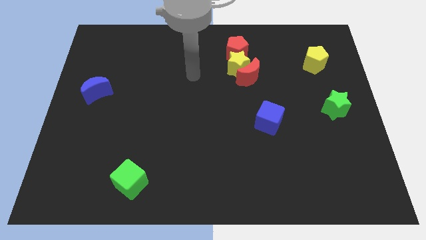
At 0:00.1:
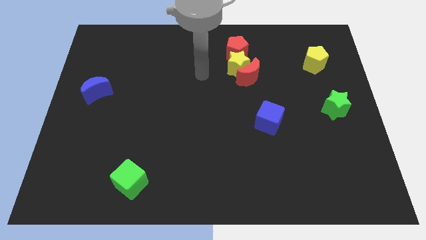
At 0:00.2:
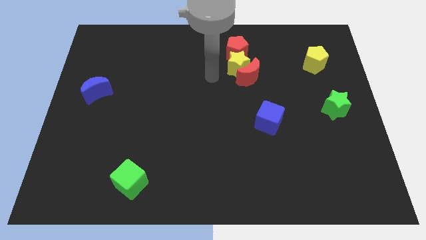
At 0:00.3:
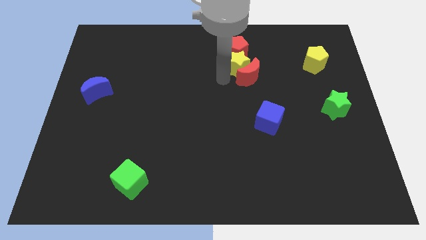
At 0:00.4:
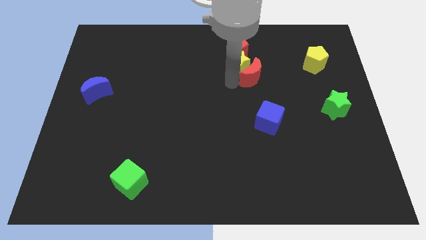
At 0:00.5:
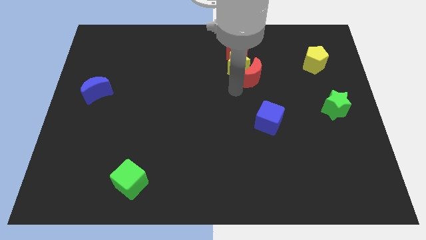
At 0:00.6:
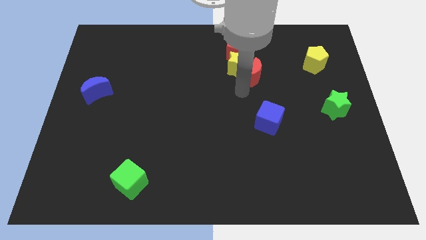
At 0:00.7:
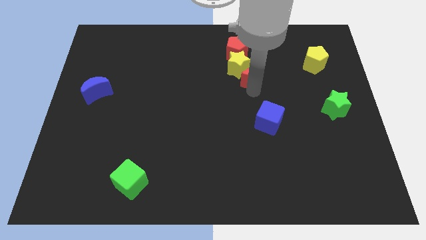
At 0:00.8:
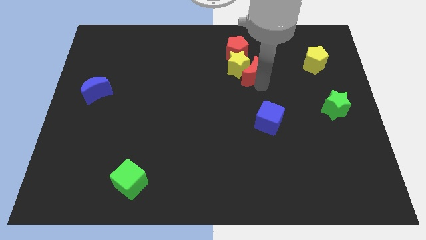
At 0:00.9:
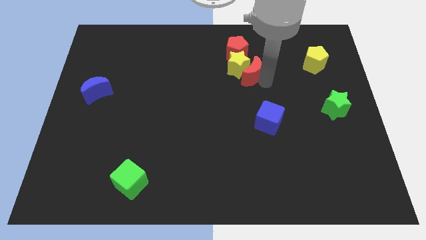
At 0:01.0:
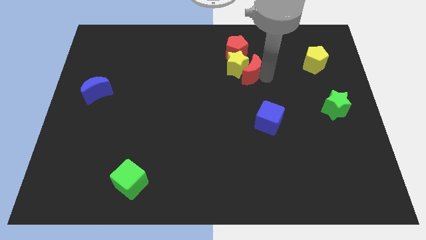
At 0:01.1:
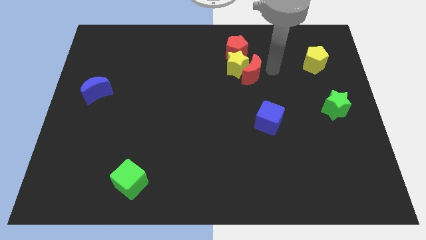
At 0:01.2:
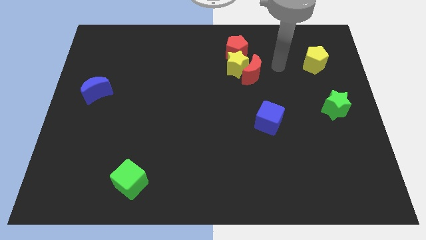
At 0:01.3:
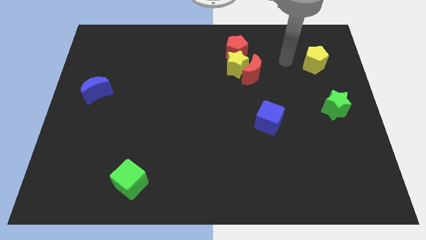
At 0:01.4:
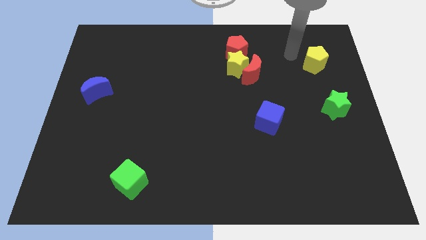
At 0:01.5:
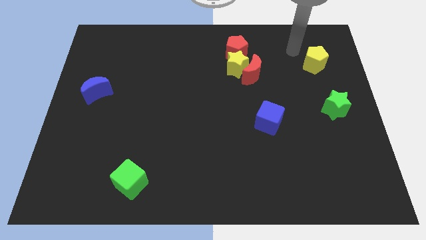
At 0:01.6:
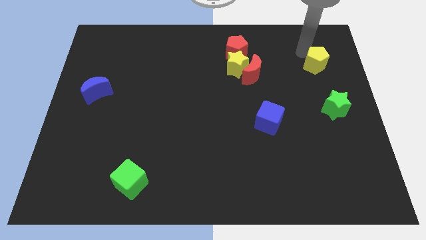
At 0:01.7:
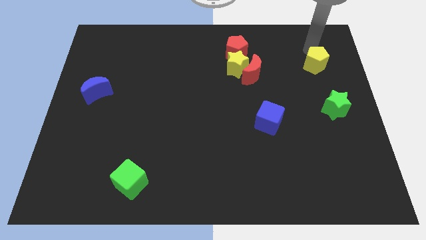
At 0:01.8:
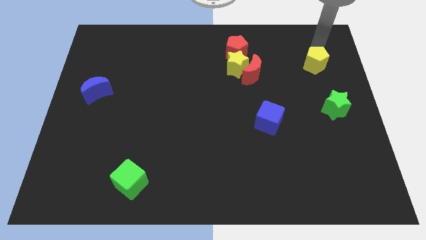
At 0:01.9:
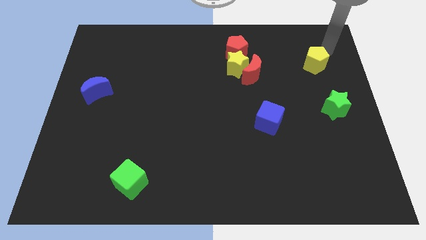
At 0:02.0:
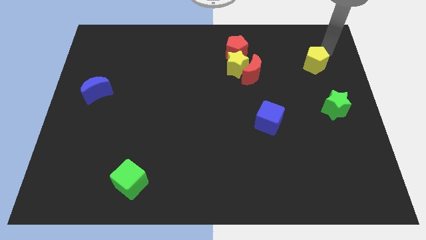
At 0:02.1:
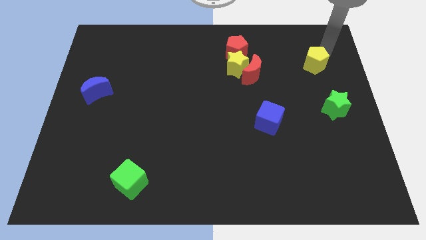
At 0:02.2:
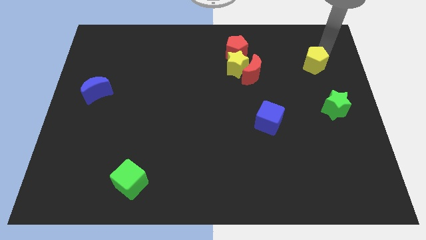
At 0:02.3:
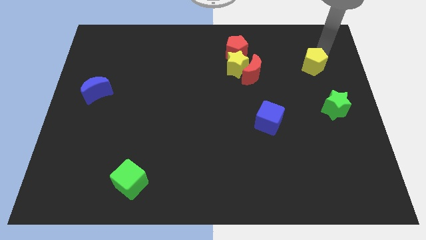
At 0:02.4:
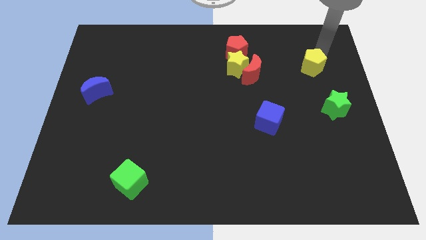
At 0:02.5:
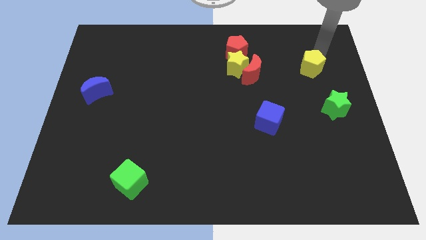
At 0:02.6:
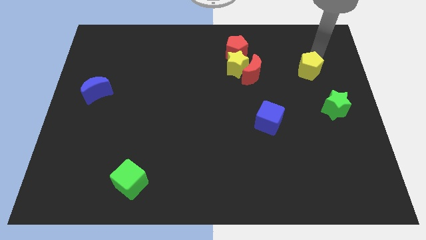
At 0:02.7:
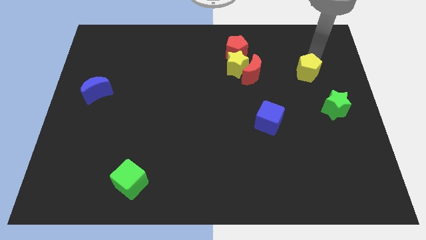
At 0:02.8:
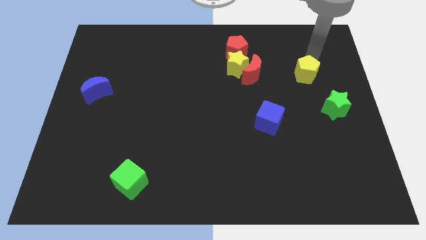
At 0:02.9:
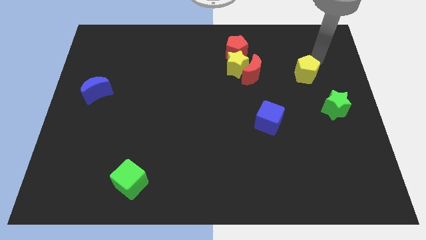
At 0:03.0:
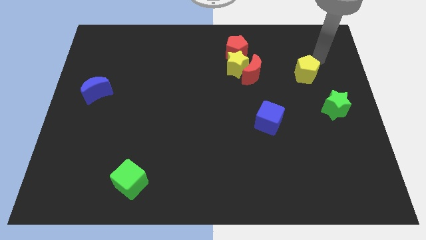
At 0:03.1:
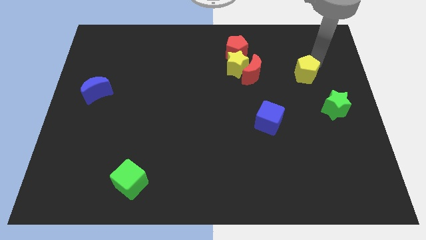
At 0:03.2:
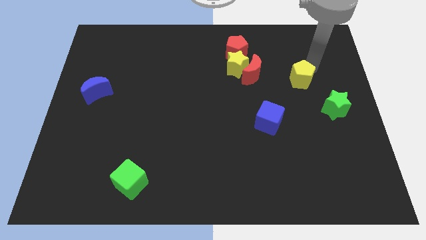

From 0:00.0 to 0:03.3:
slide the yellow pentagon a little down and to the left diagonally

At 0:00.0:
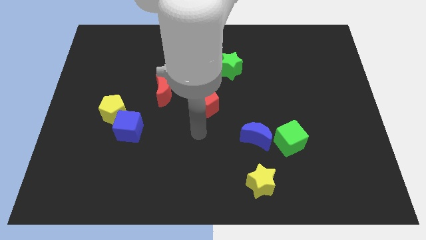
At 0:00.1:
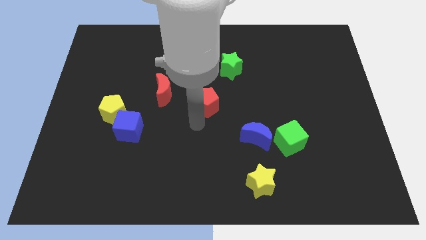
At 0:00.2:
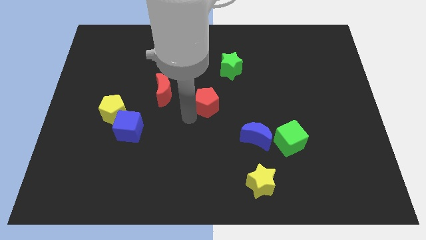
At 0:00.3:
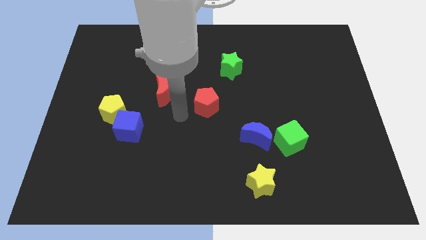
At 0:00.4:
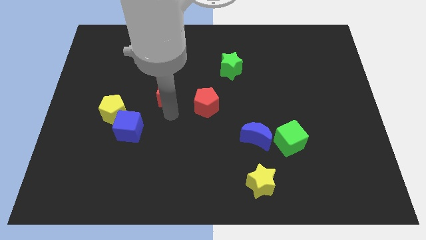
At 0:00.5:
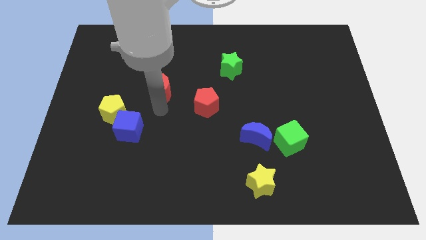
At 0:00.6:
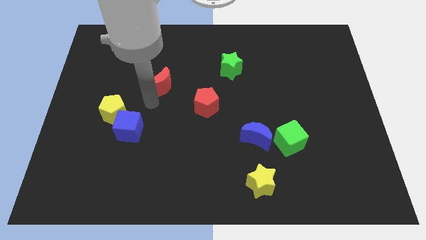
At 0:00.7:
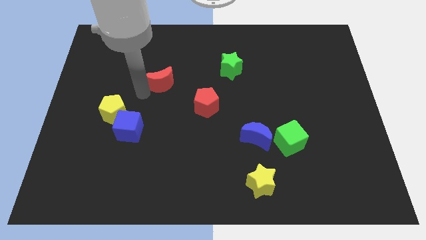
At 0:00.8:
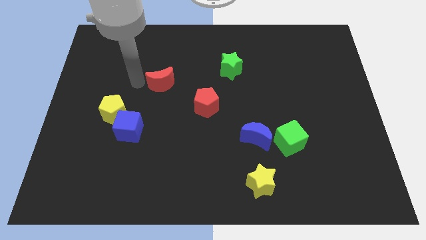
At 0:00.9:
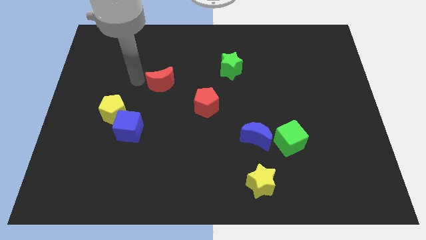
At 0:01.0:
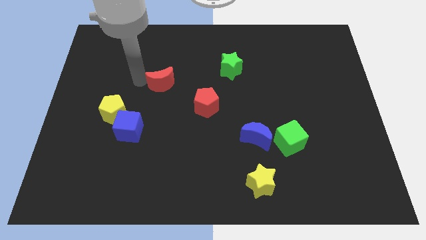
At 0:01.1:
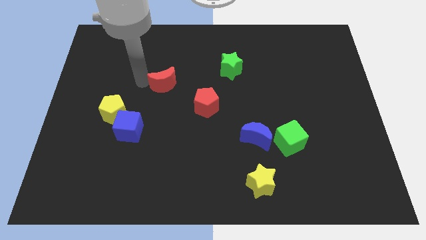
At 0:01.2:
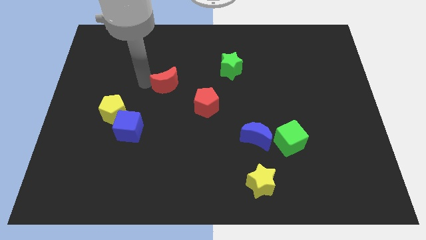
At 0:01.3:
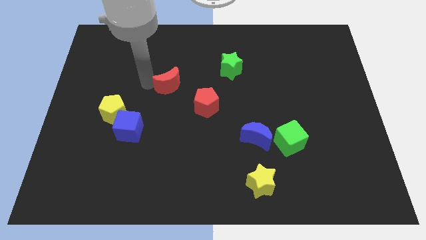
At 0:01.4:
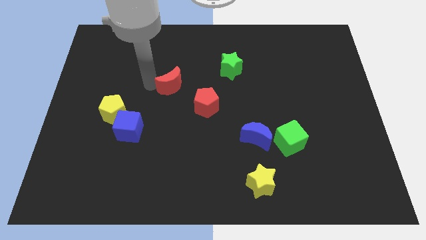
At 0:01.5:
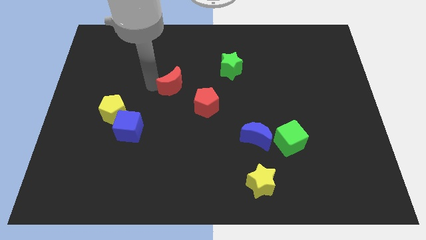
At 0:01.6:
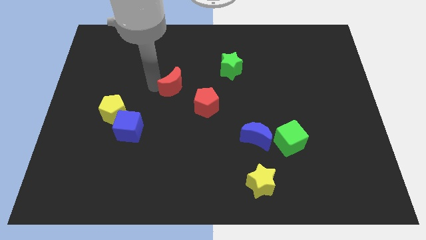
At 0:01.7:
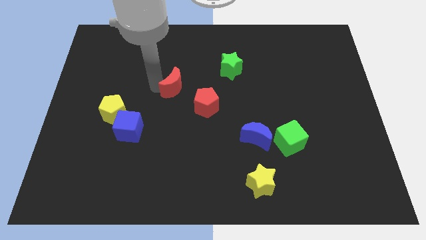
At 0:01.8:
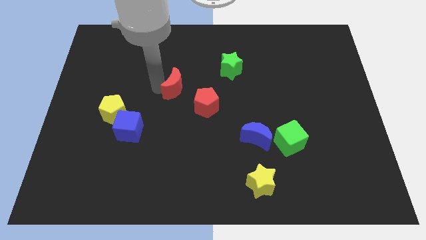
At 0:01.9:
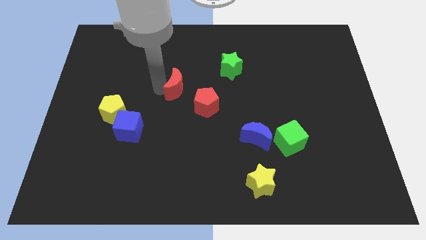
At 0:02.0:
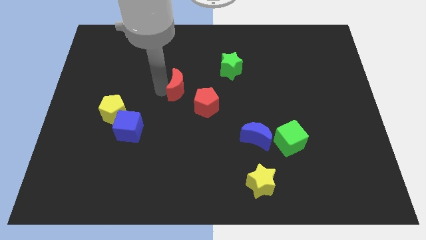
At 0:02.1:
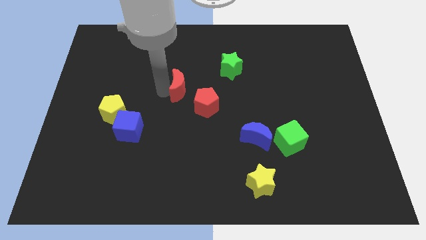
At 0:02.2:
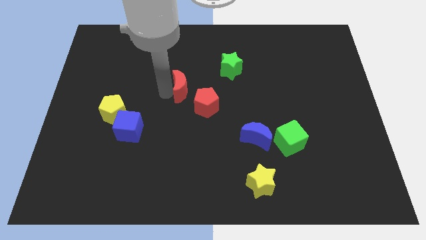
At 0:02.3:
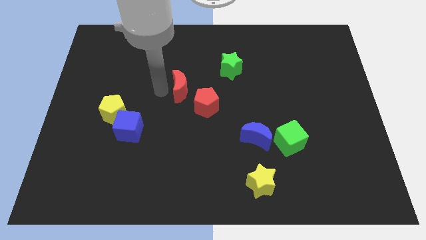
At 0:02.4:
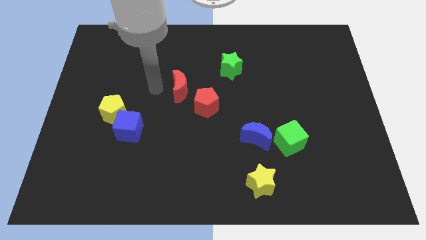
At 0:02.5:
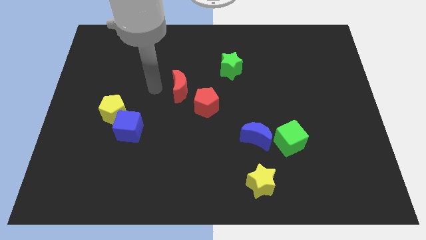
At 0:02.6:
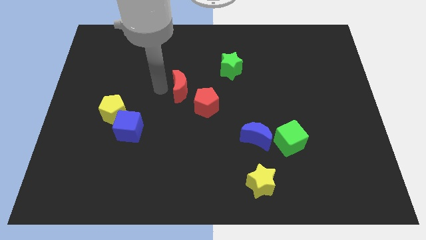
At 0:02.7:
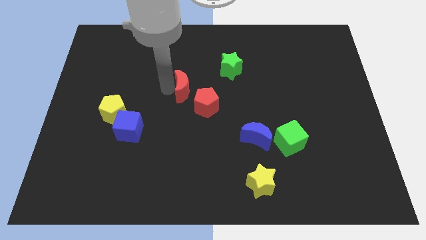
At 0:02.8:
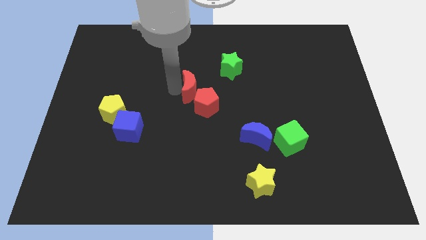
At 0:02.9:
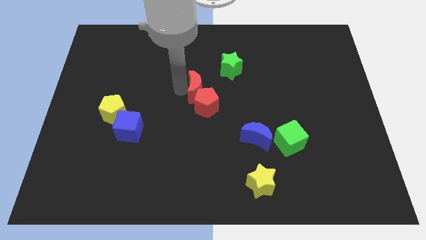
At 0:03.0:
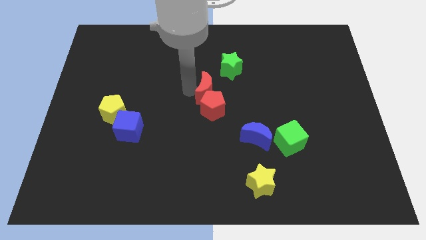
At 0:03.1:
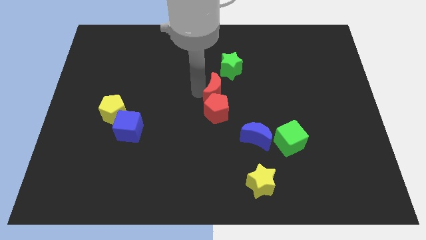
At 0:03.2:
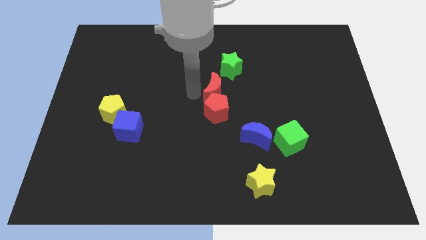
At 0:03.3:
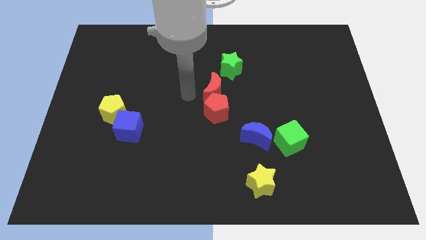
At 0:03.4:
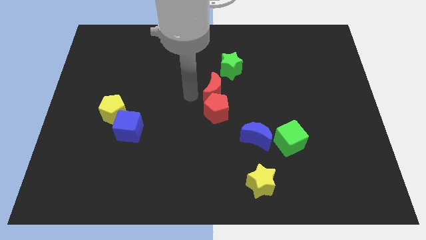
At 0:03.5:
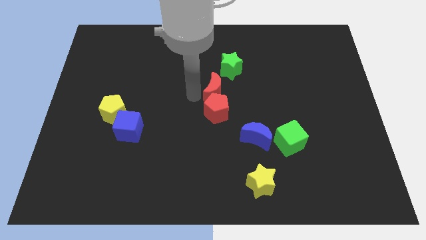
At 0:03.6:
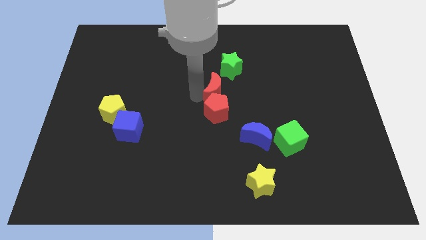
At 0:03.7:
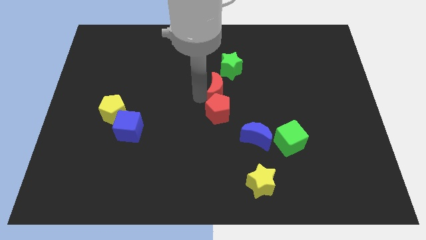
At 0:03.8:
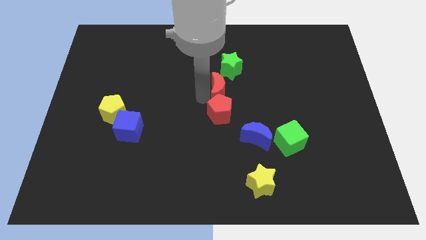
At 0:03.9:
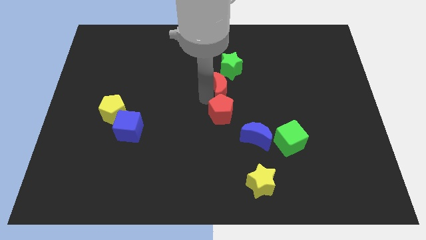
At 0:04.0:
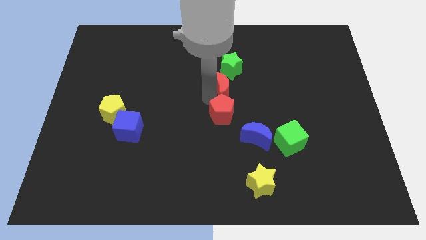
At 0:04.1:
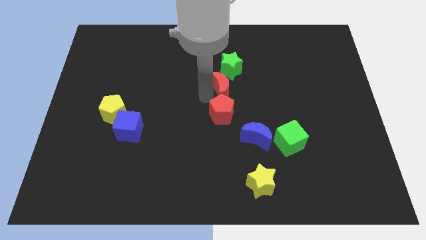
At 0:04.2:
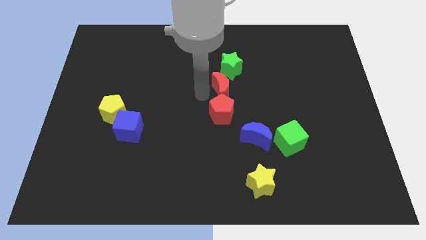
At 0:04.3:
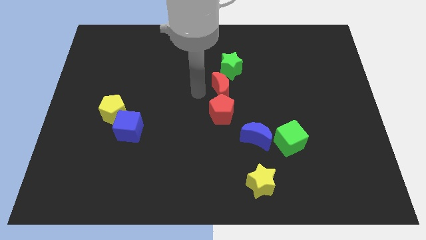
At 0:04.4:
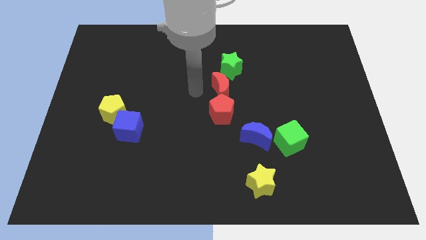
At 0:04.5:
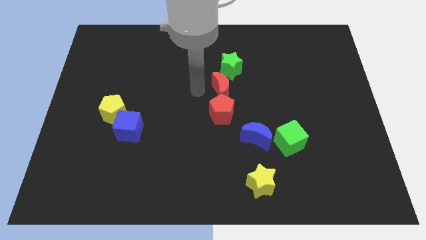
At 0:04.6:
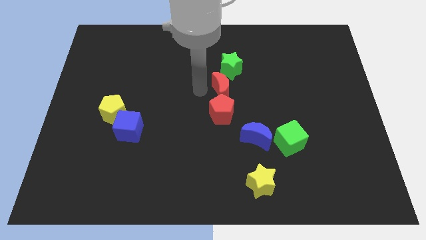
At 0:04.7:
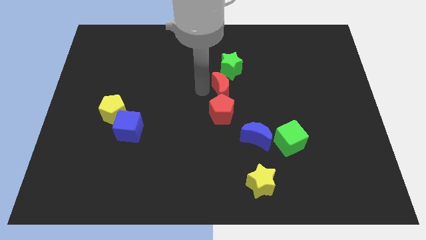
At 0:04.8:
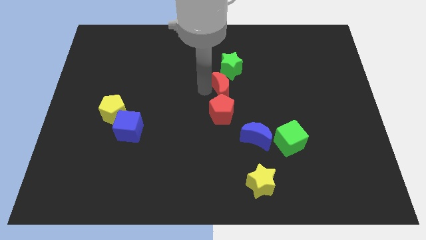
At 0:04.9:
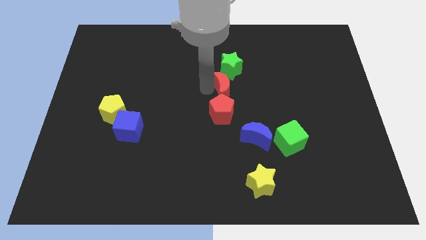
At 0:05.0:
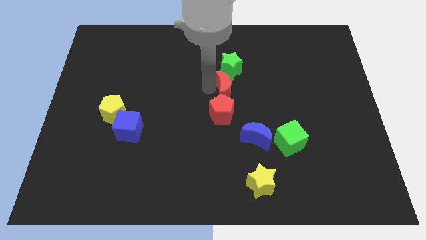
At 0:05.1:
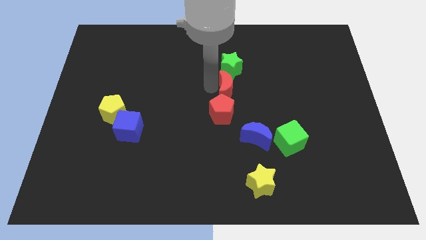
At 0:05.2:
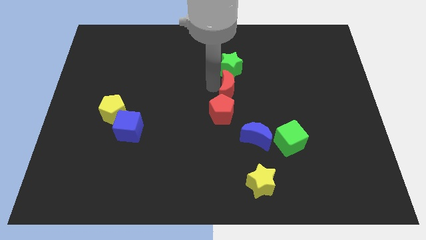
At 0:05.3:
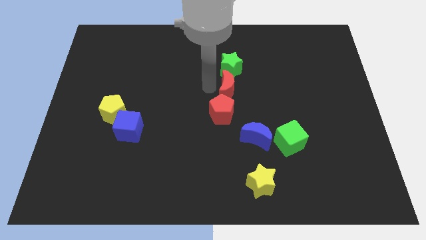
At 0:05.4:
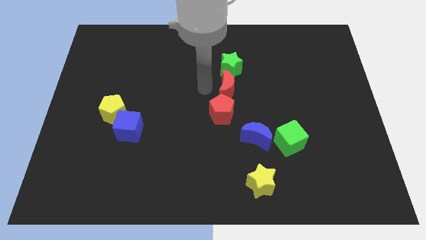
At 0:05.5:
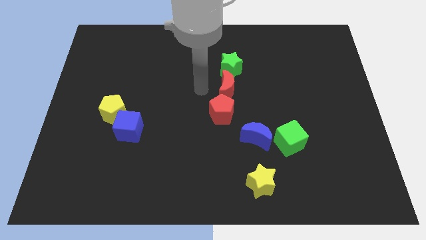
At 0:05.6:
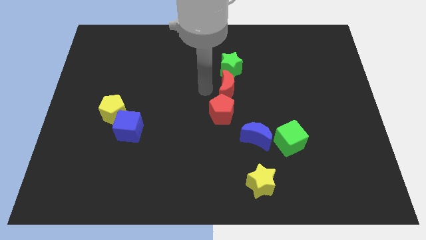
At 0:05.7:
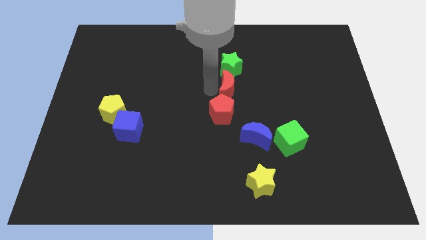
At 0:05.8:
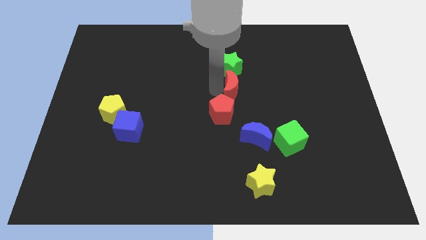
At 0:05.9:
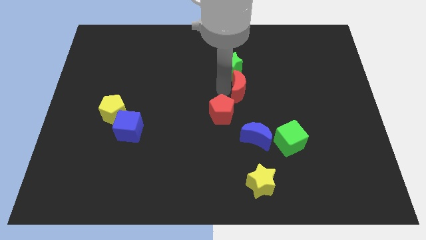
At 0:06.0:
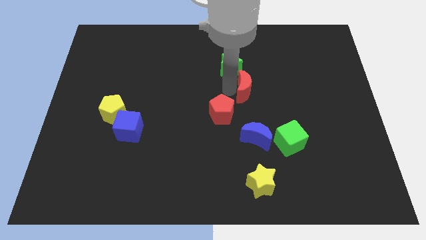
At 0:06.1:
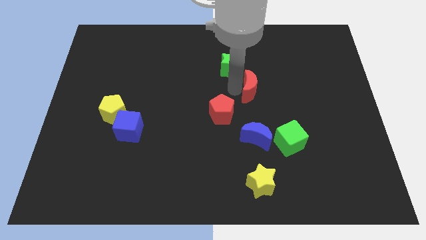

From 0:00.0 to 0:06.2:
slide the red moon to the right
